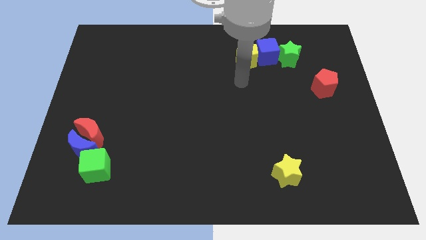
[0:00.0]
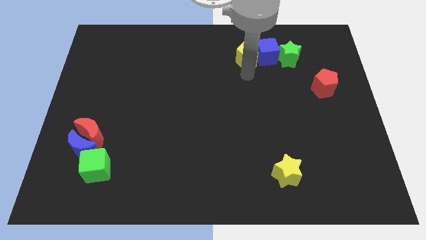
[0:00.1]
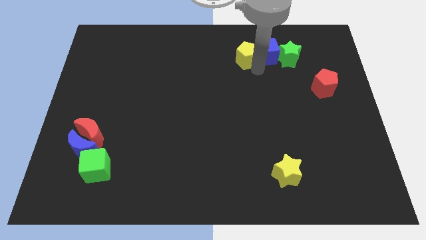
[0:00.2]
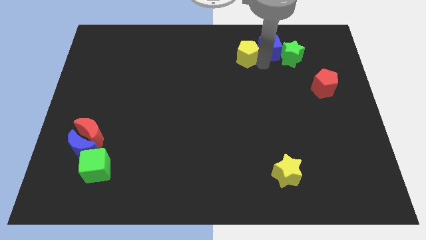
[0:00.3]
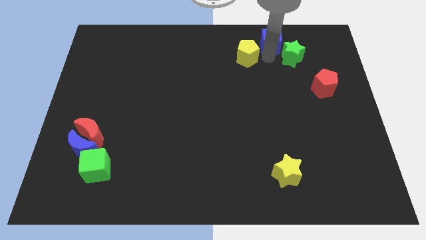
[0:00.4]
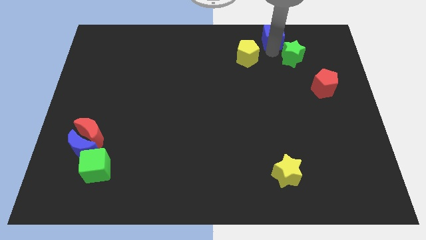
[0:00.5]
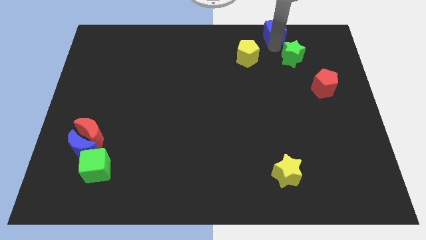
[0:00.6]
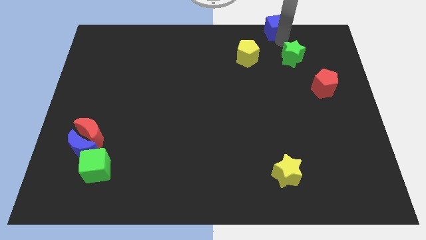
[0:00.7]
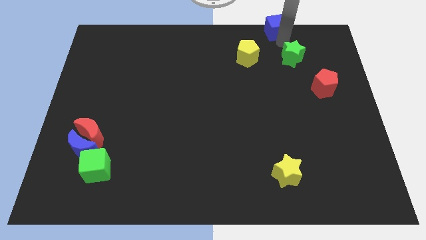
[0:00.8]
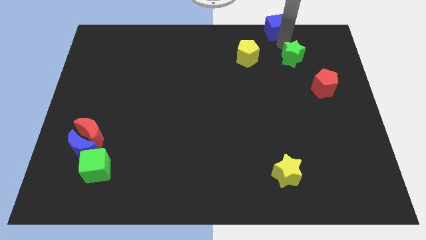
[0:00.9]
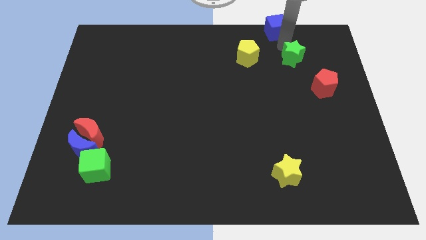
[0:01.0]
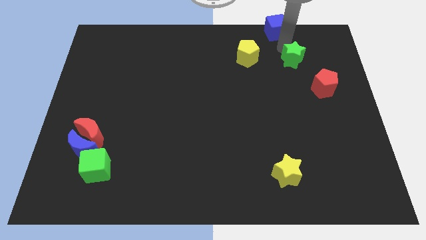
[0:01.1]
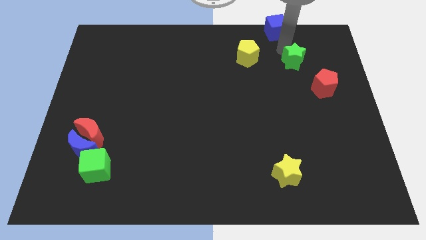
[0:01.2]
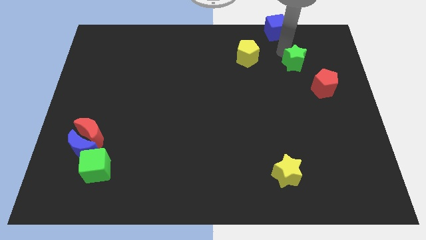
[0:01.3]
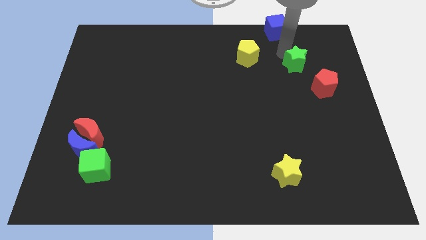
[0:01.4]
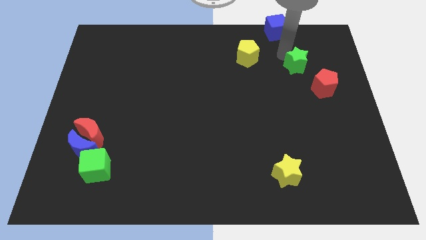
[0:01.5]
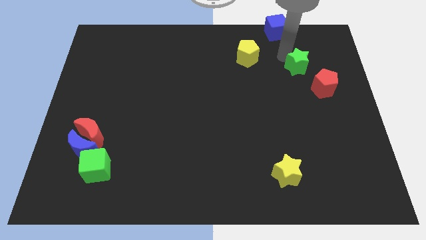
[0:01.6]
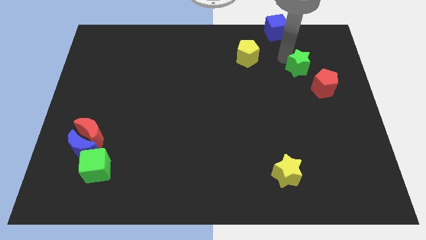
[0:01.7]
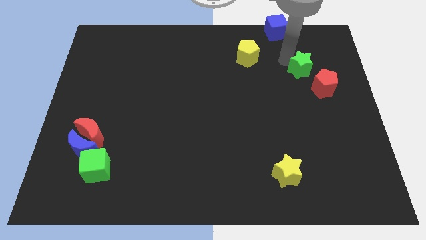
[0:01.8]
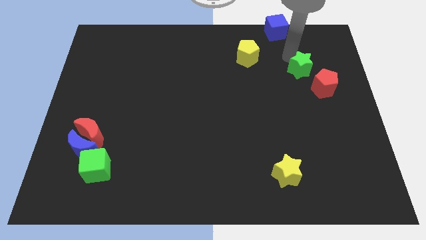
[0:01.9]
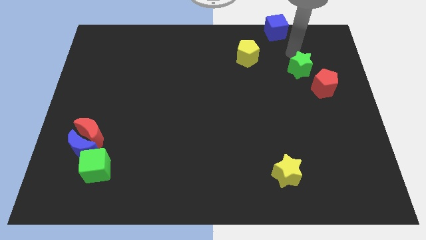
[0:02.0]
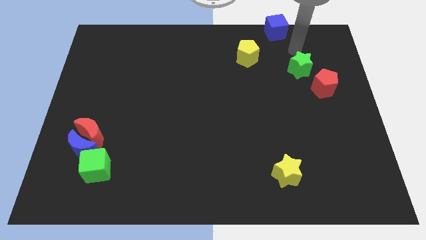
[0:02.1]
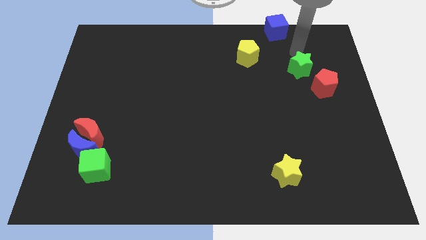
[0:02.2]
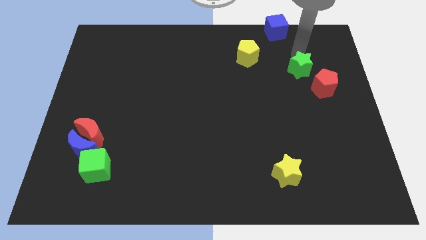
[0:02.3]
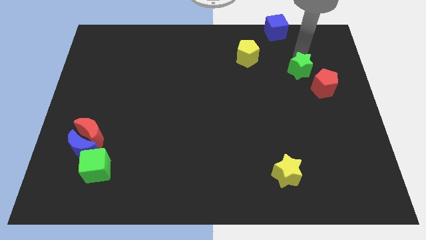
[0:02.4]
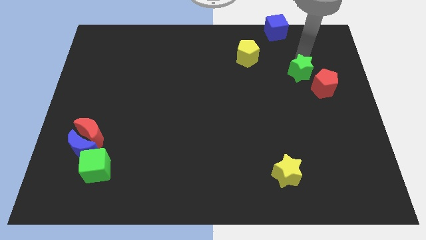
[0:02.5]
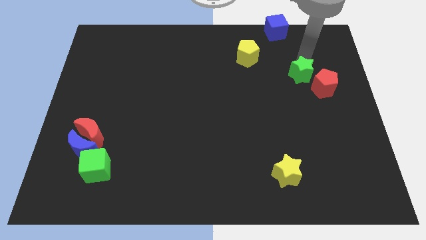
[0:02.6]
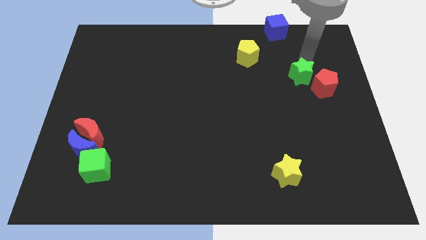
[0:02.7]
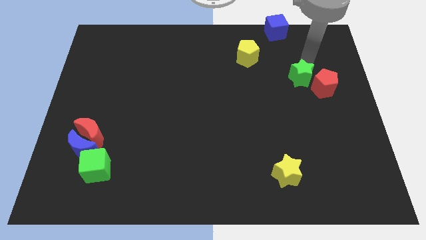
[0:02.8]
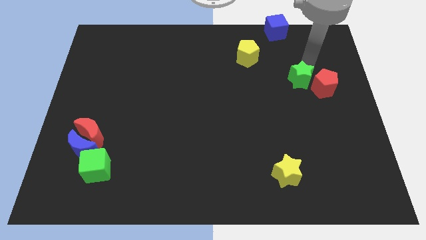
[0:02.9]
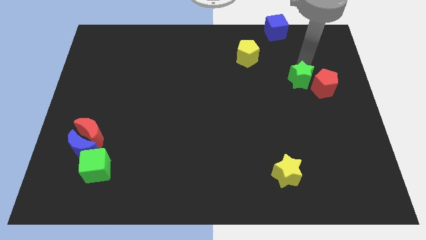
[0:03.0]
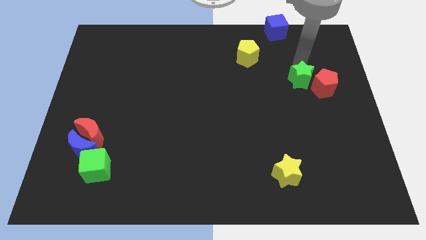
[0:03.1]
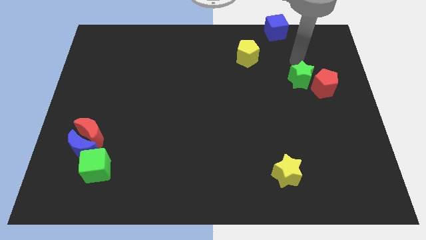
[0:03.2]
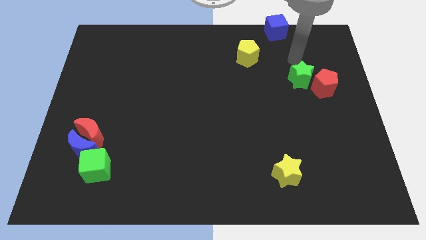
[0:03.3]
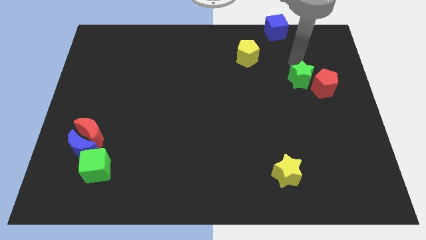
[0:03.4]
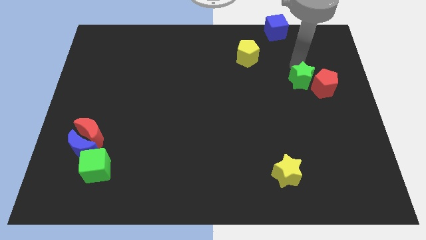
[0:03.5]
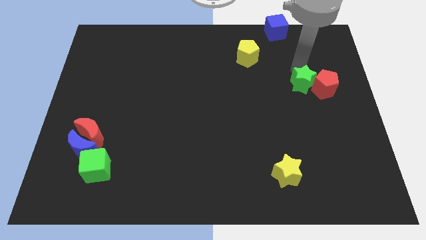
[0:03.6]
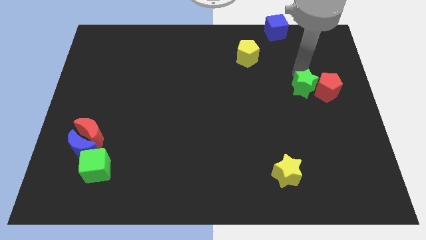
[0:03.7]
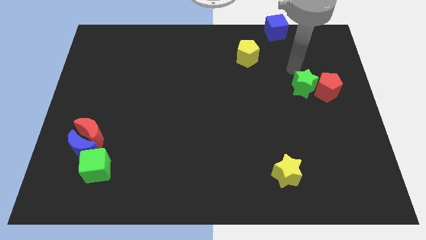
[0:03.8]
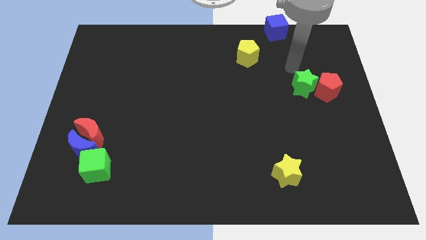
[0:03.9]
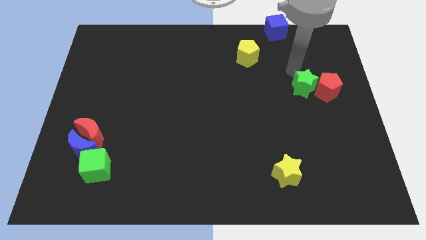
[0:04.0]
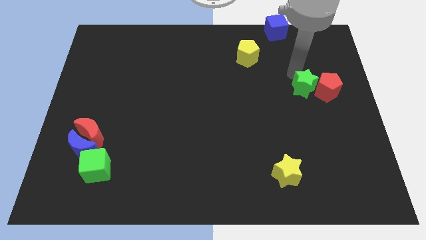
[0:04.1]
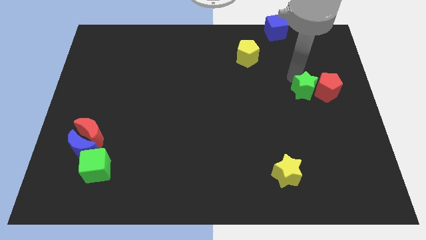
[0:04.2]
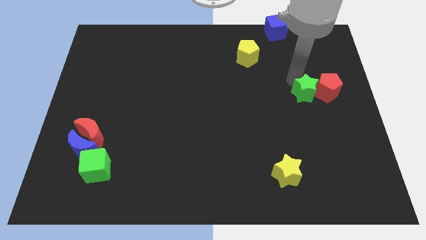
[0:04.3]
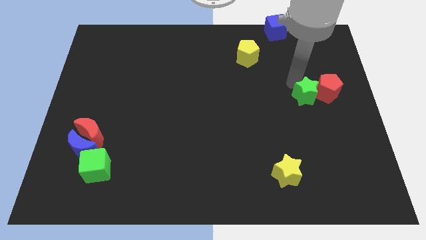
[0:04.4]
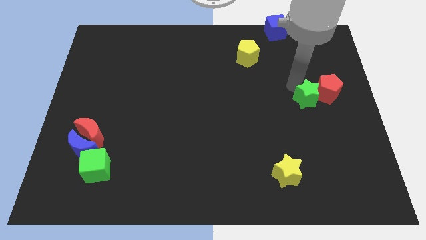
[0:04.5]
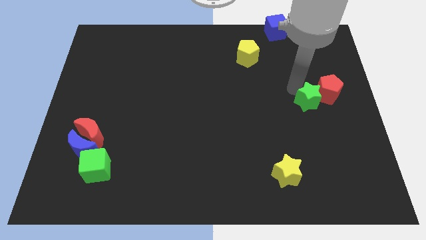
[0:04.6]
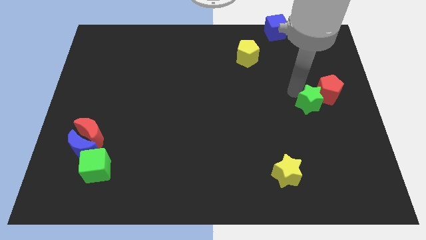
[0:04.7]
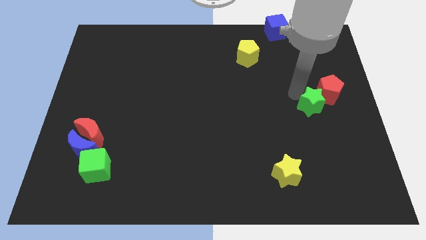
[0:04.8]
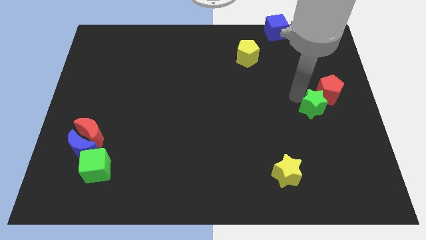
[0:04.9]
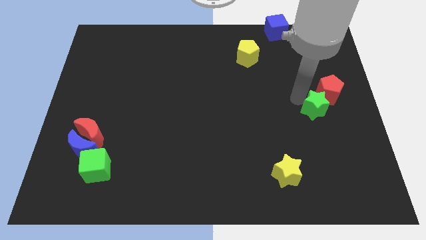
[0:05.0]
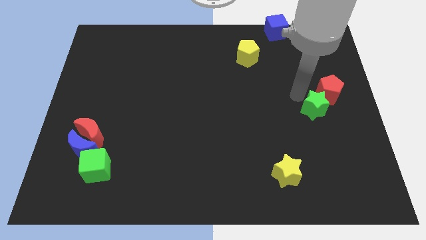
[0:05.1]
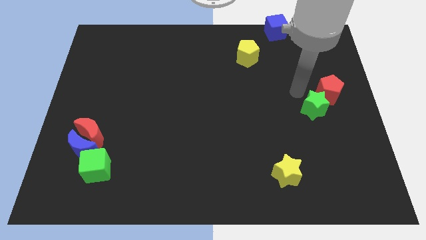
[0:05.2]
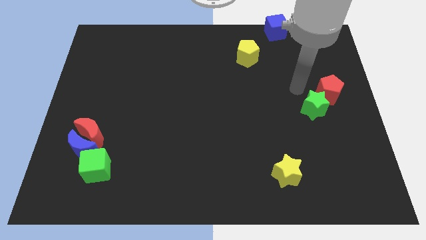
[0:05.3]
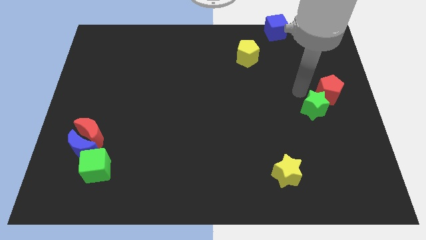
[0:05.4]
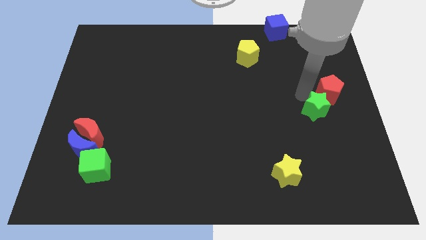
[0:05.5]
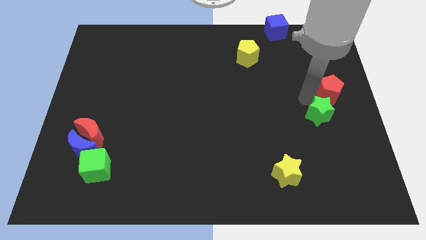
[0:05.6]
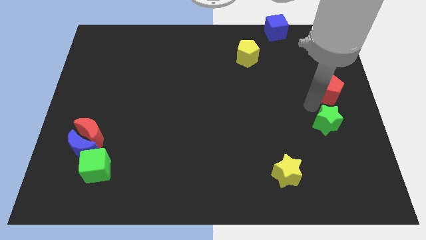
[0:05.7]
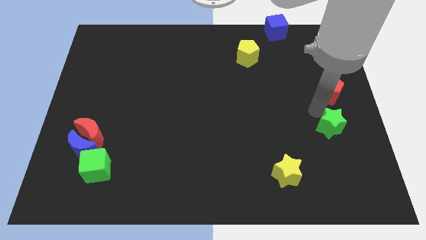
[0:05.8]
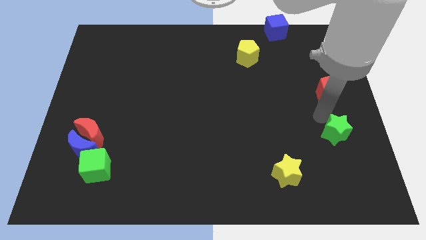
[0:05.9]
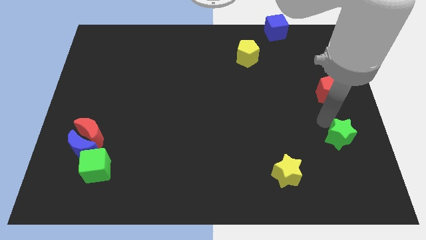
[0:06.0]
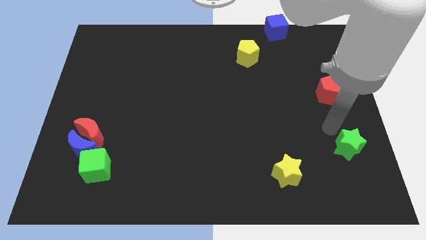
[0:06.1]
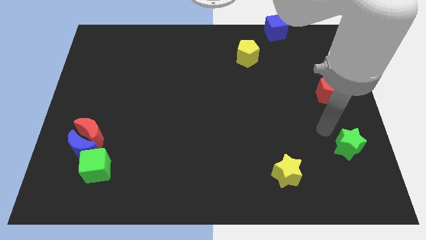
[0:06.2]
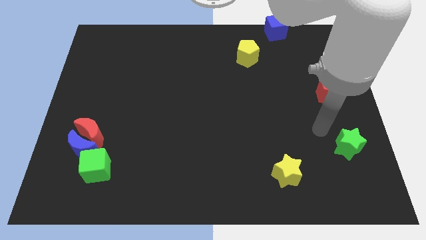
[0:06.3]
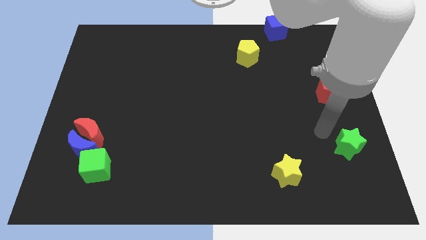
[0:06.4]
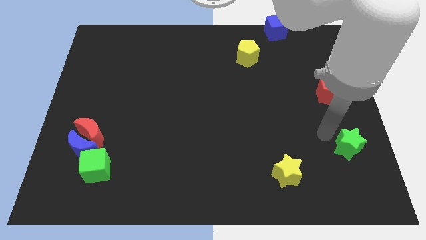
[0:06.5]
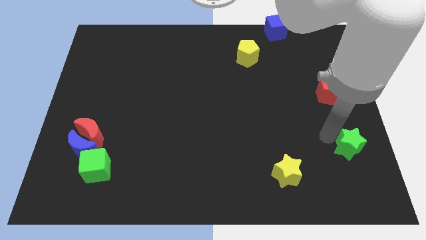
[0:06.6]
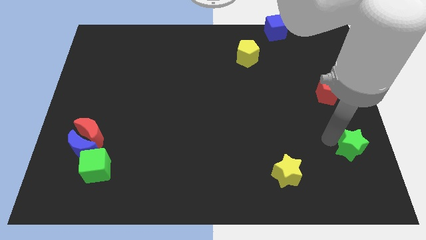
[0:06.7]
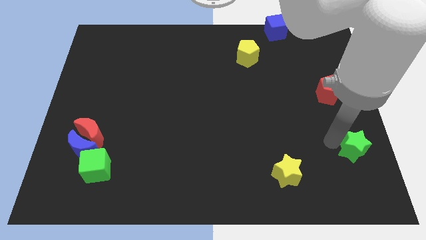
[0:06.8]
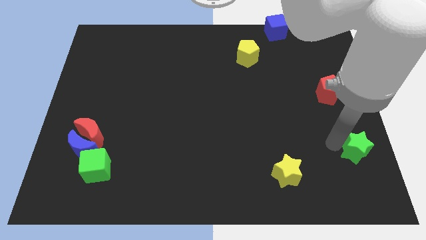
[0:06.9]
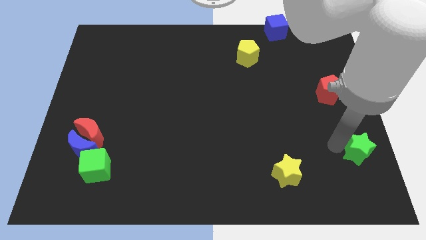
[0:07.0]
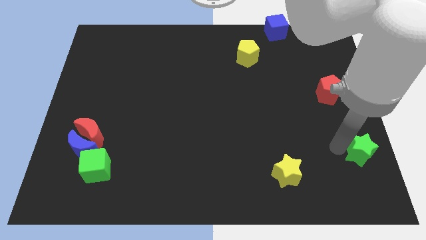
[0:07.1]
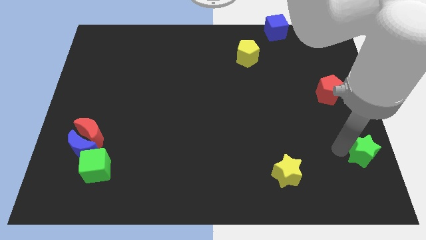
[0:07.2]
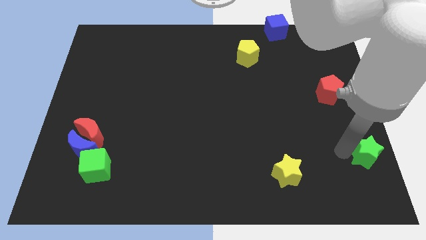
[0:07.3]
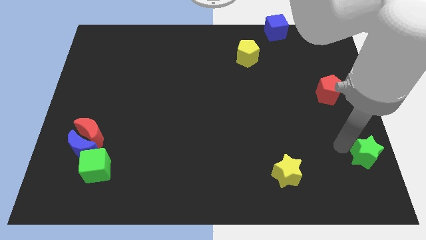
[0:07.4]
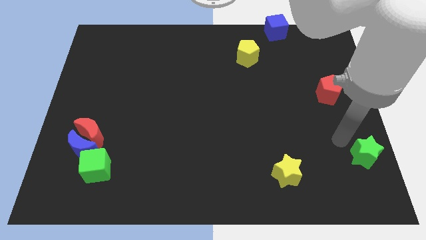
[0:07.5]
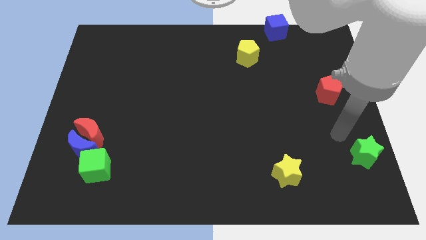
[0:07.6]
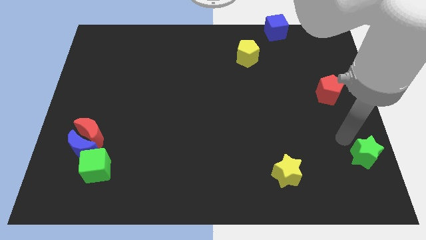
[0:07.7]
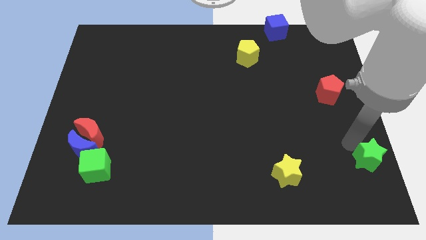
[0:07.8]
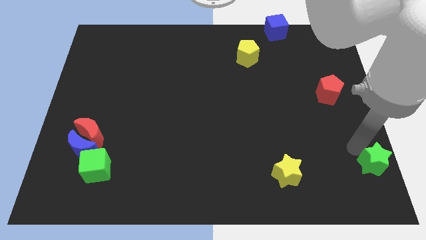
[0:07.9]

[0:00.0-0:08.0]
push the green star to the lower right corner
